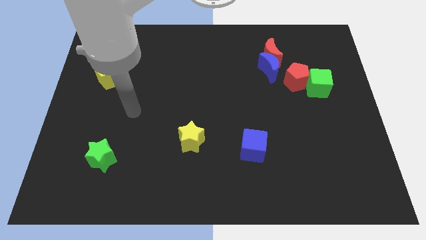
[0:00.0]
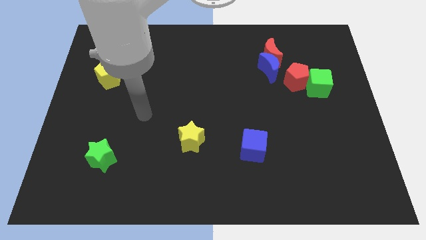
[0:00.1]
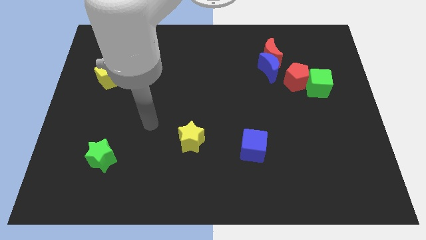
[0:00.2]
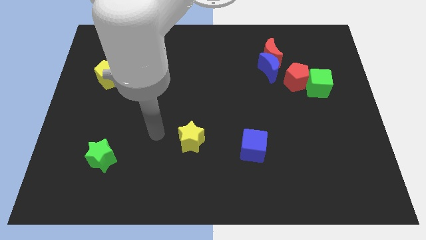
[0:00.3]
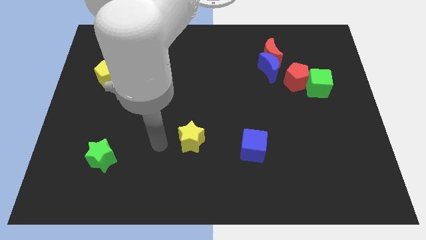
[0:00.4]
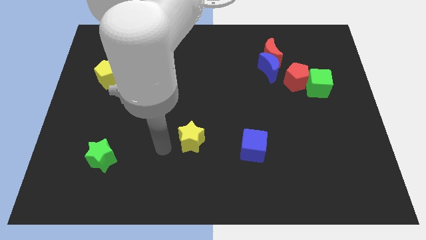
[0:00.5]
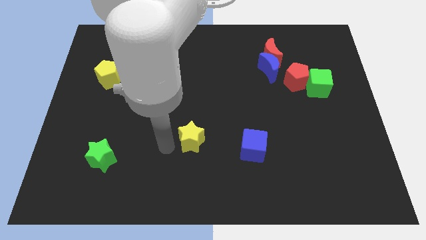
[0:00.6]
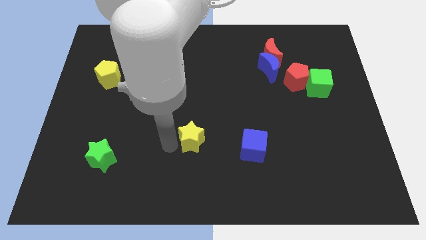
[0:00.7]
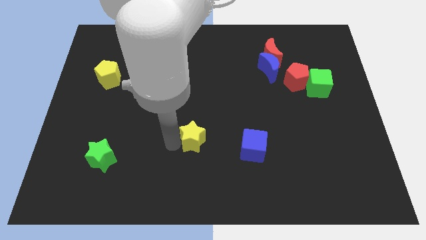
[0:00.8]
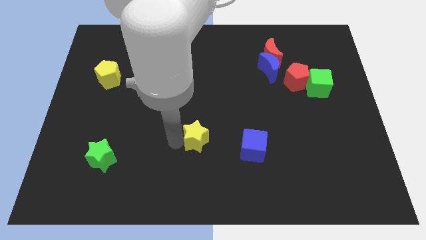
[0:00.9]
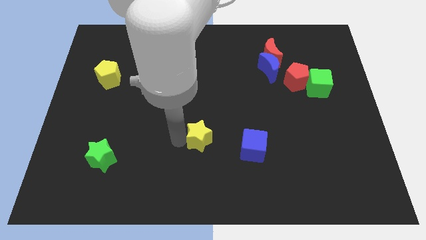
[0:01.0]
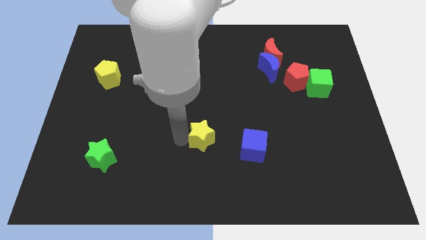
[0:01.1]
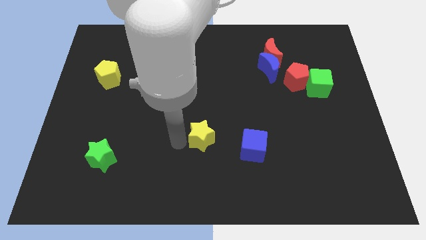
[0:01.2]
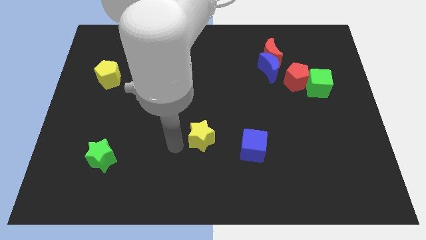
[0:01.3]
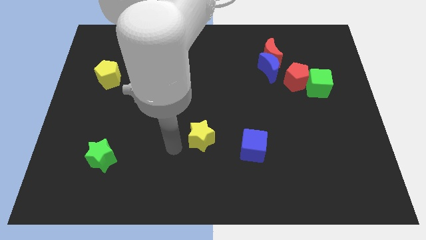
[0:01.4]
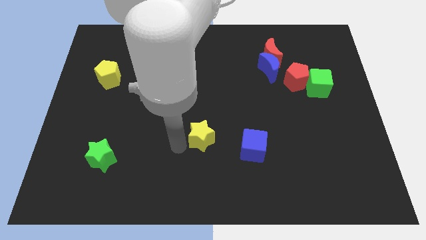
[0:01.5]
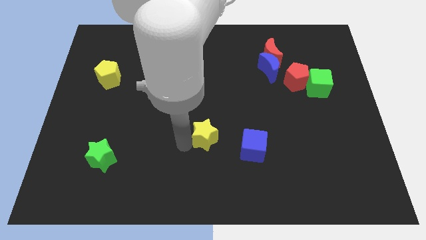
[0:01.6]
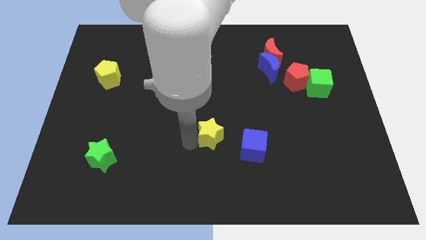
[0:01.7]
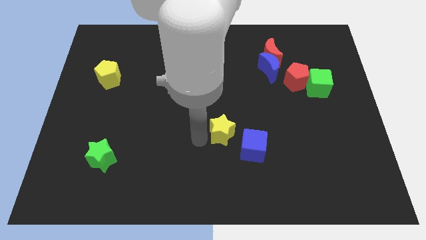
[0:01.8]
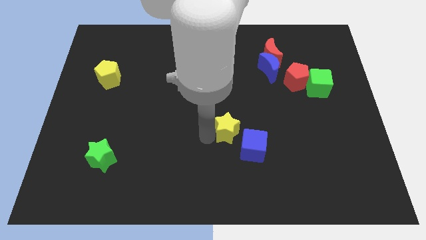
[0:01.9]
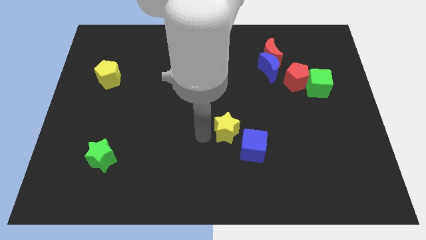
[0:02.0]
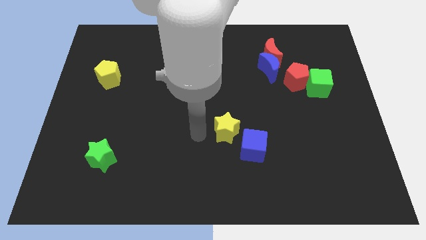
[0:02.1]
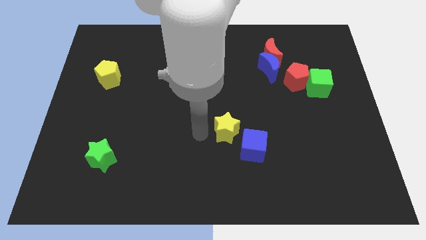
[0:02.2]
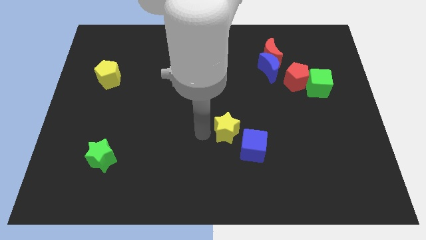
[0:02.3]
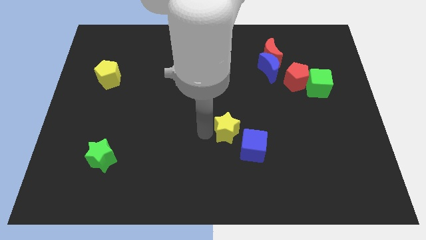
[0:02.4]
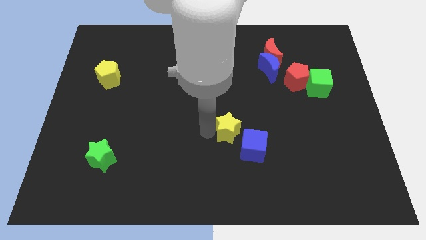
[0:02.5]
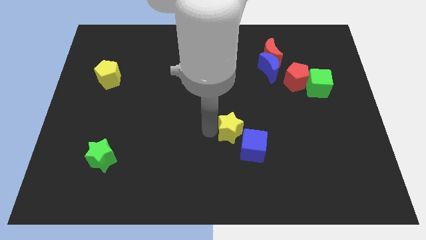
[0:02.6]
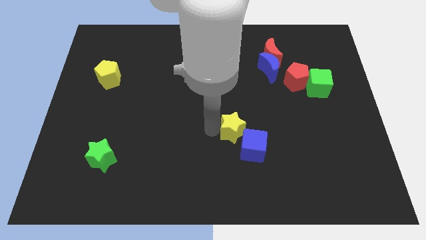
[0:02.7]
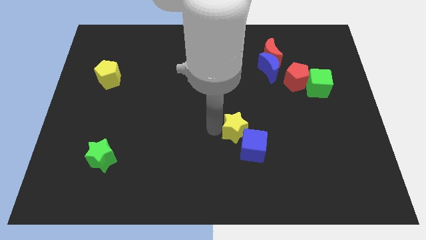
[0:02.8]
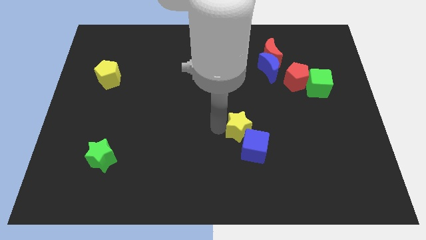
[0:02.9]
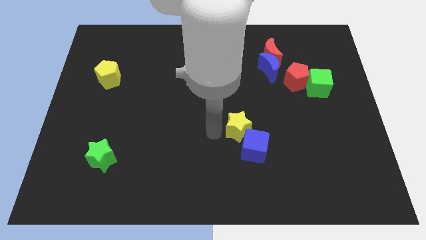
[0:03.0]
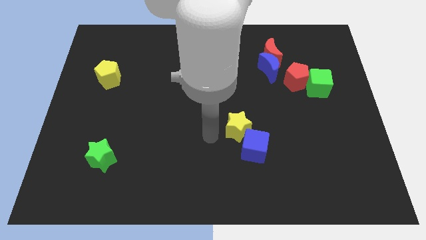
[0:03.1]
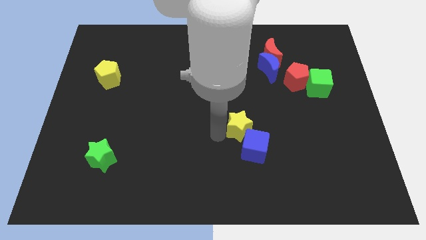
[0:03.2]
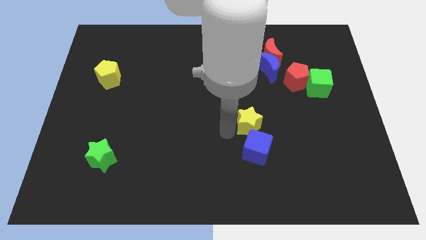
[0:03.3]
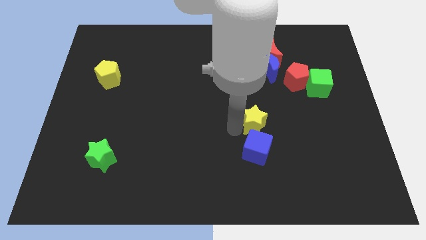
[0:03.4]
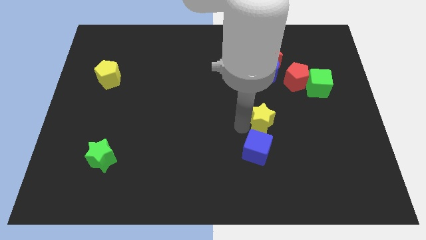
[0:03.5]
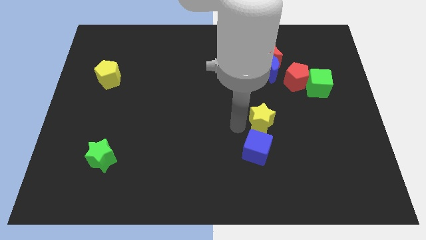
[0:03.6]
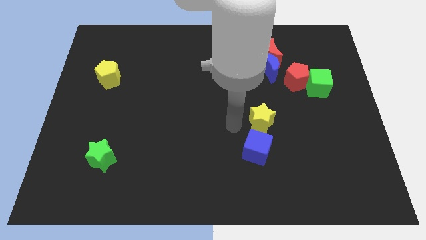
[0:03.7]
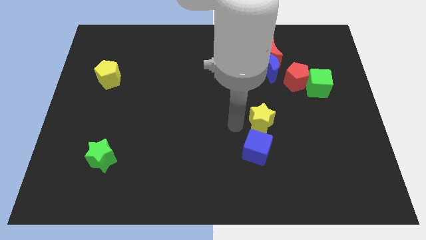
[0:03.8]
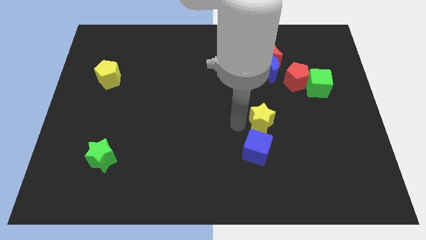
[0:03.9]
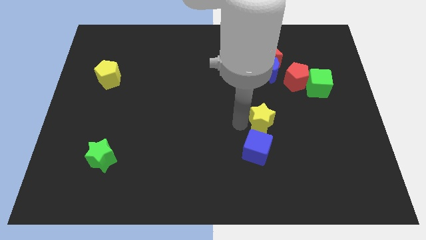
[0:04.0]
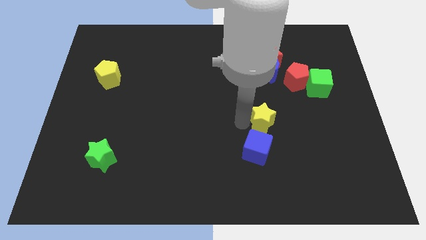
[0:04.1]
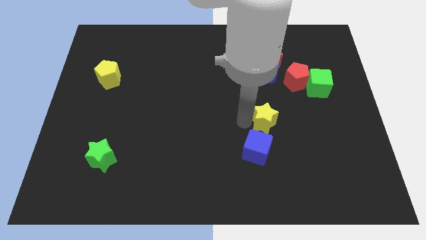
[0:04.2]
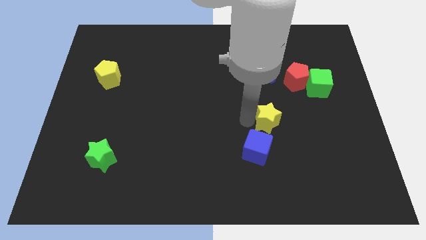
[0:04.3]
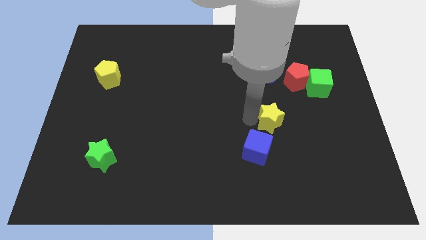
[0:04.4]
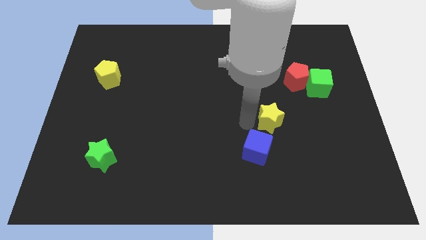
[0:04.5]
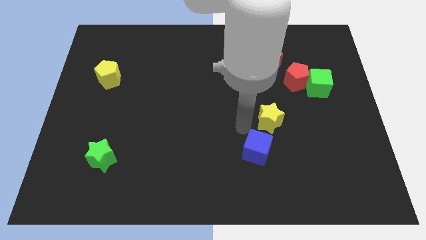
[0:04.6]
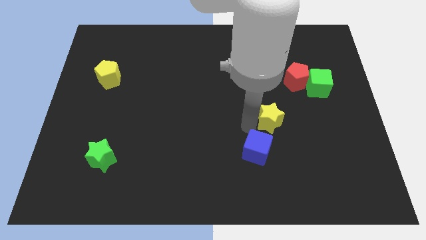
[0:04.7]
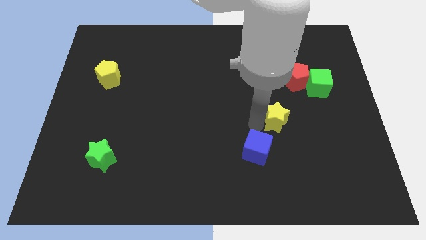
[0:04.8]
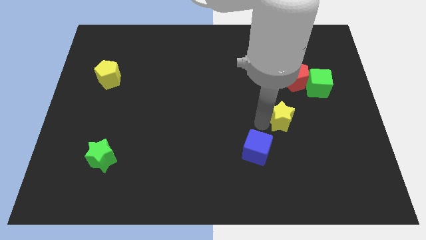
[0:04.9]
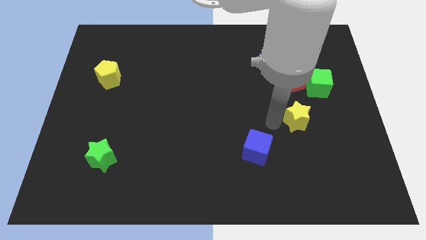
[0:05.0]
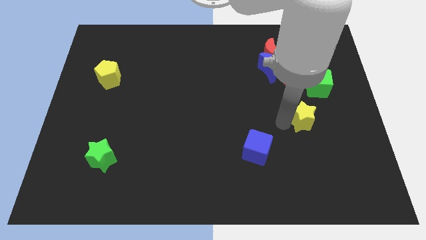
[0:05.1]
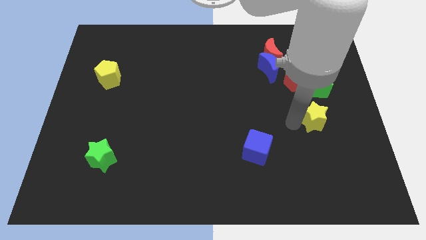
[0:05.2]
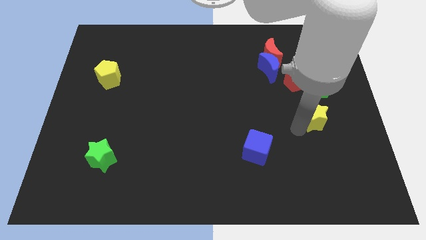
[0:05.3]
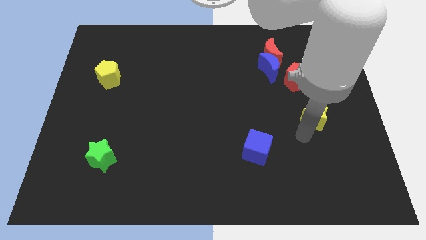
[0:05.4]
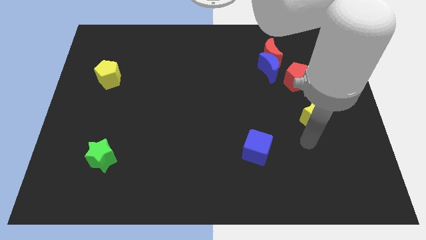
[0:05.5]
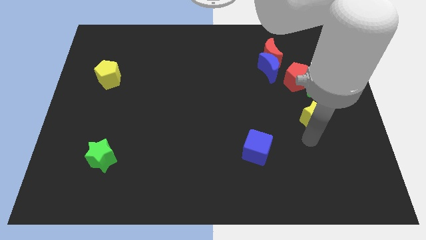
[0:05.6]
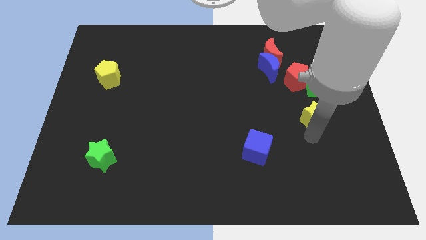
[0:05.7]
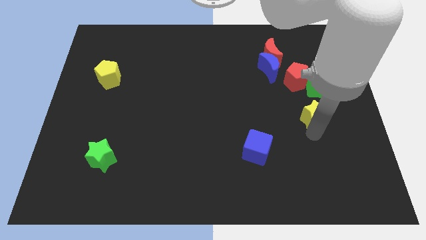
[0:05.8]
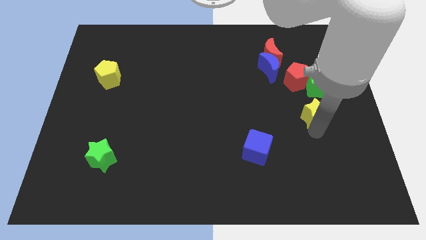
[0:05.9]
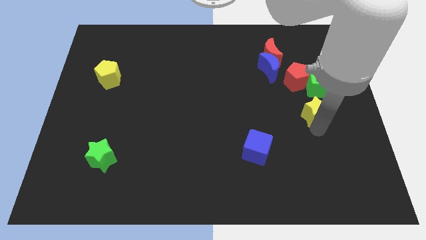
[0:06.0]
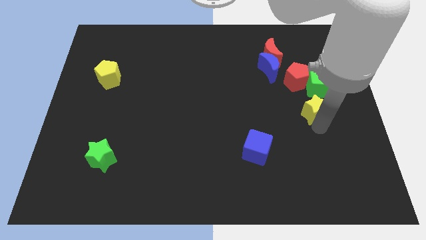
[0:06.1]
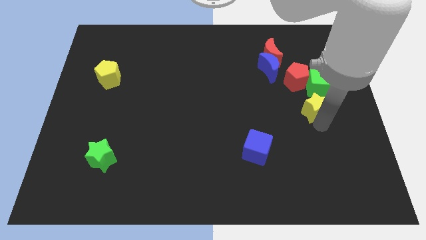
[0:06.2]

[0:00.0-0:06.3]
put the yellow star diagonally down and to the right of the red pentagon
